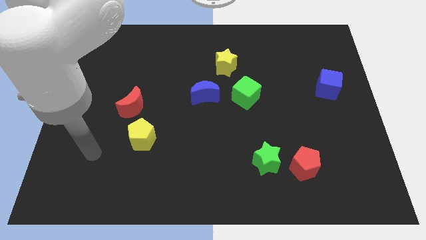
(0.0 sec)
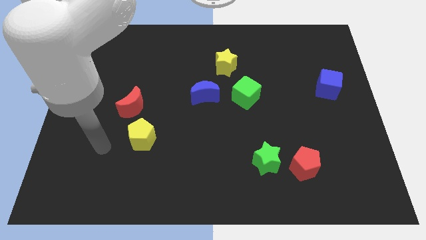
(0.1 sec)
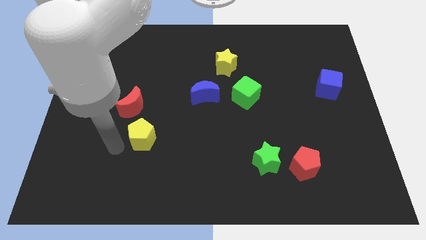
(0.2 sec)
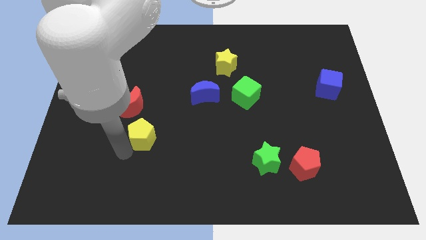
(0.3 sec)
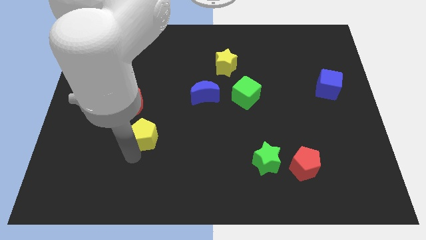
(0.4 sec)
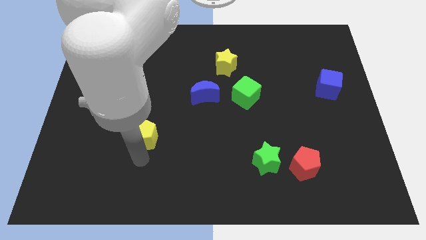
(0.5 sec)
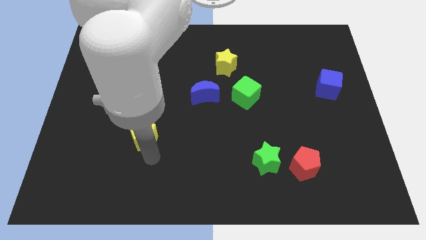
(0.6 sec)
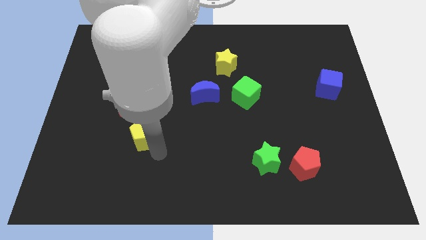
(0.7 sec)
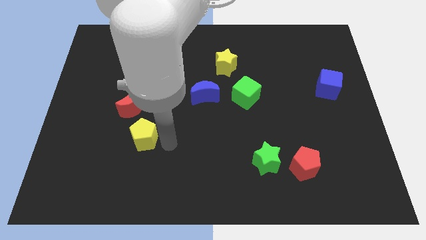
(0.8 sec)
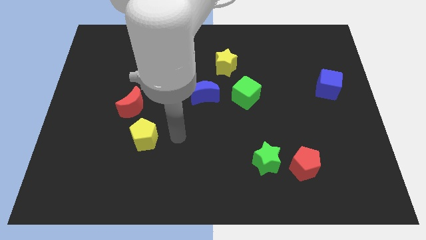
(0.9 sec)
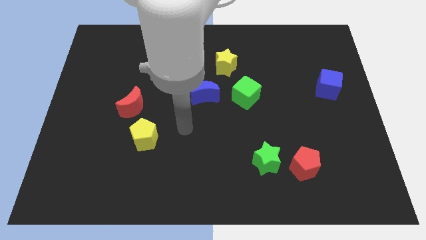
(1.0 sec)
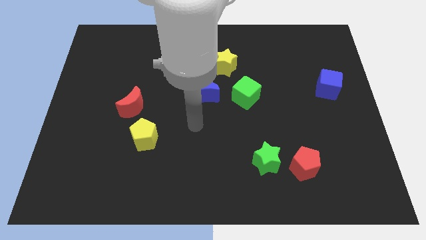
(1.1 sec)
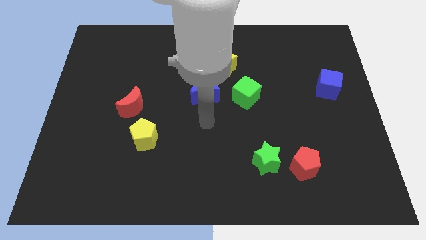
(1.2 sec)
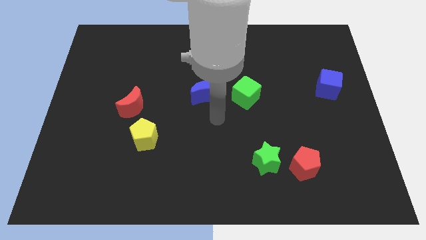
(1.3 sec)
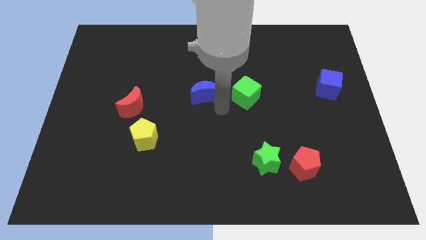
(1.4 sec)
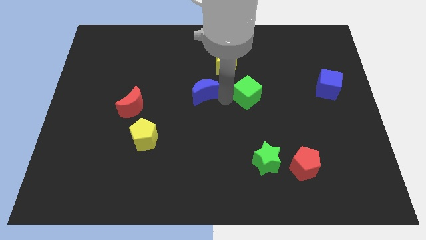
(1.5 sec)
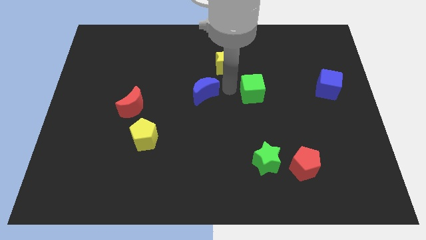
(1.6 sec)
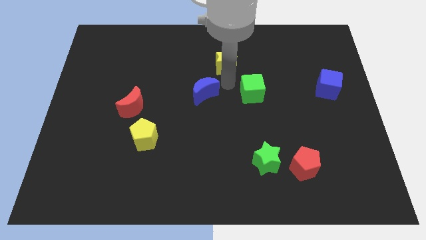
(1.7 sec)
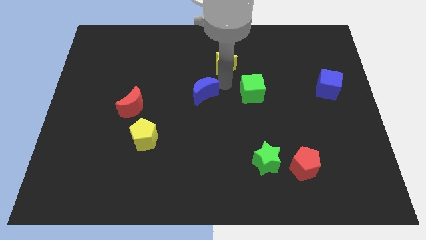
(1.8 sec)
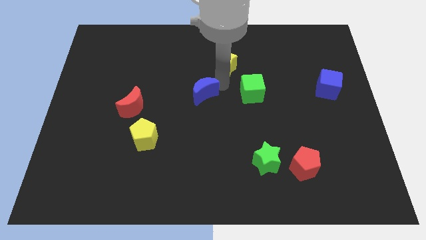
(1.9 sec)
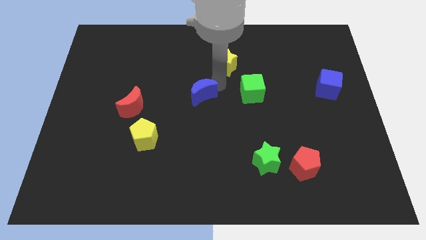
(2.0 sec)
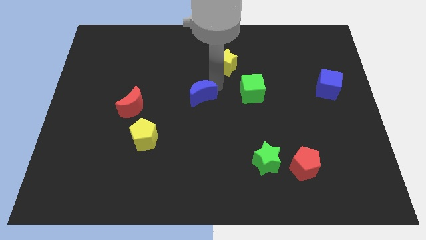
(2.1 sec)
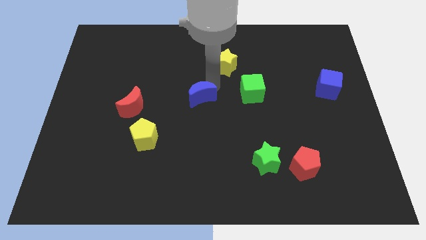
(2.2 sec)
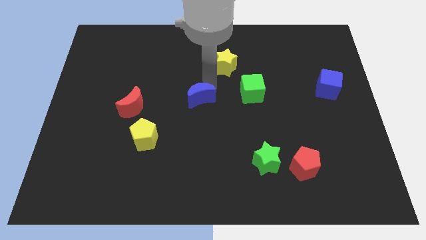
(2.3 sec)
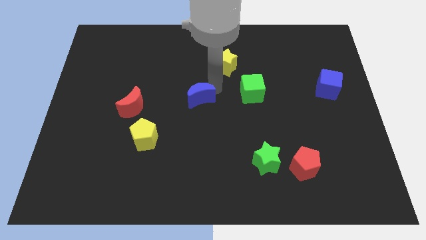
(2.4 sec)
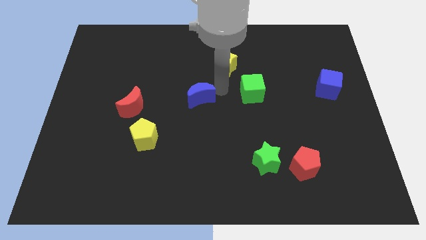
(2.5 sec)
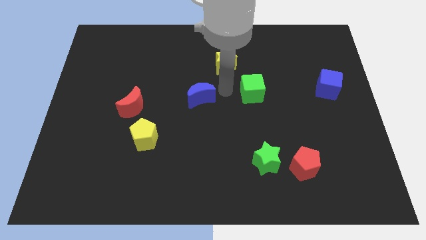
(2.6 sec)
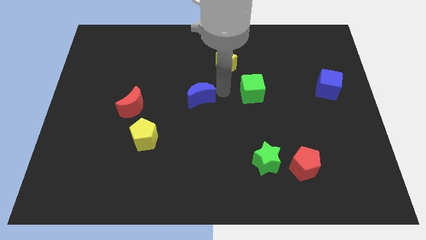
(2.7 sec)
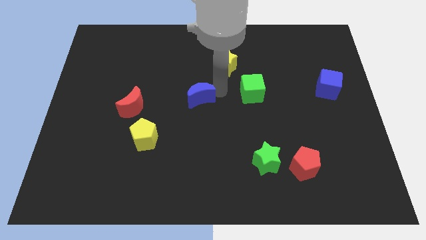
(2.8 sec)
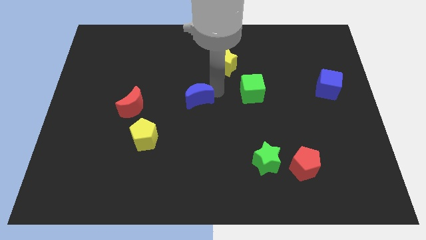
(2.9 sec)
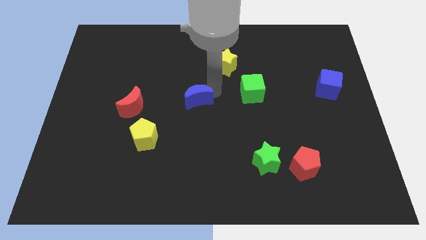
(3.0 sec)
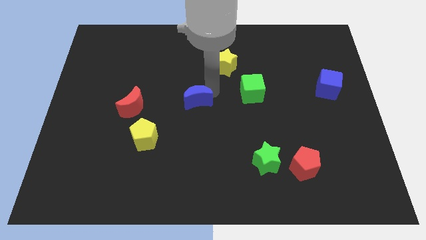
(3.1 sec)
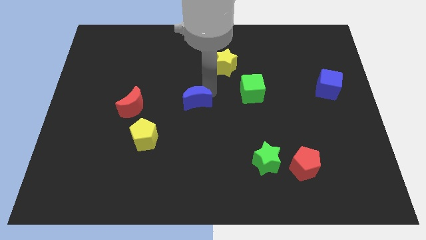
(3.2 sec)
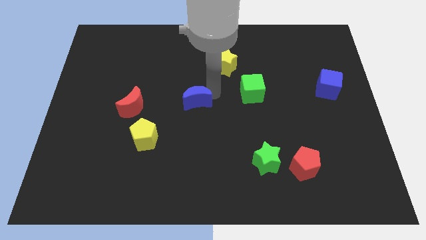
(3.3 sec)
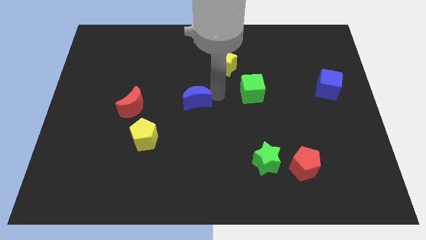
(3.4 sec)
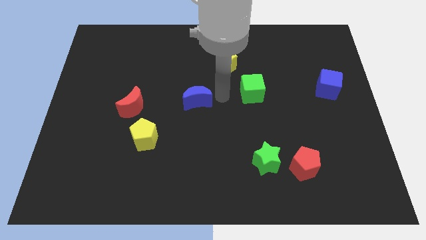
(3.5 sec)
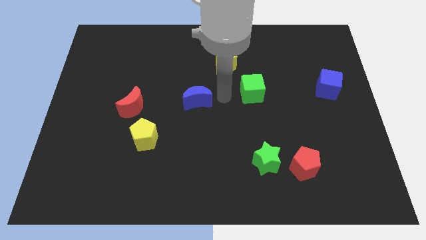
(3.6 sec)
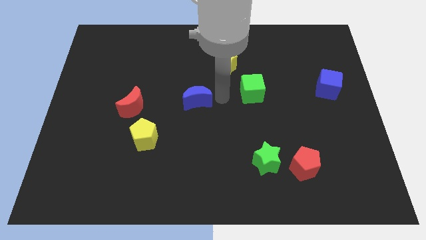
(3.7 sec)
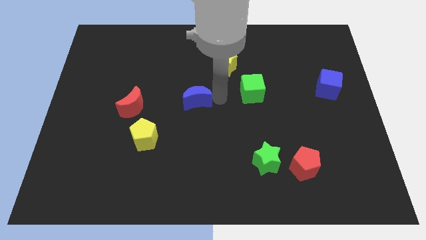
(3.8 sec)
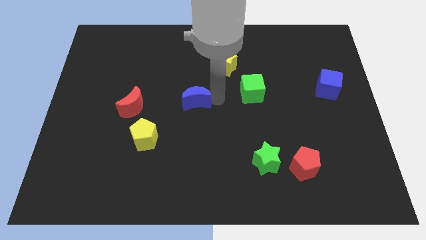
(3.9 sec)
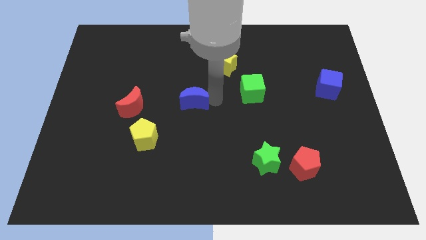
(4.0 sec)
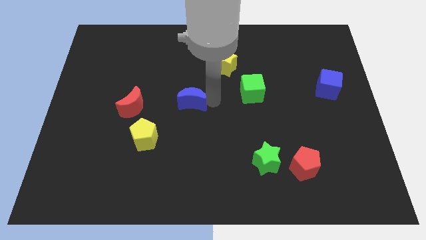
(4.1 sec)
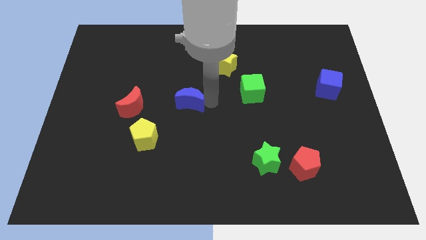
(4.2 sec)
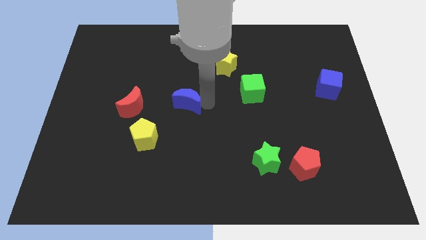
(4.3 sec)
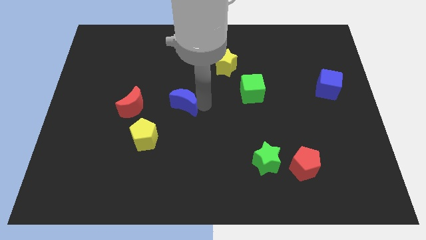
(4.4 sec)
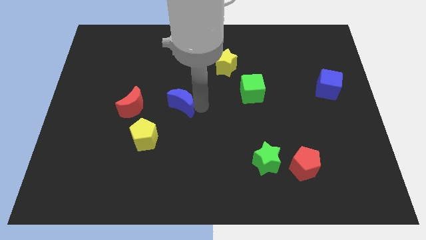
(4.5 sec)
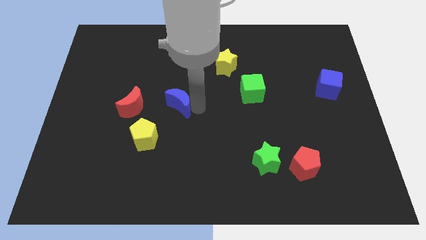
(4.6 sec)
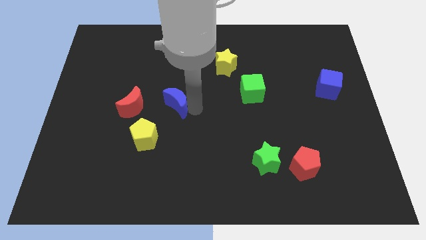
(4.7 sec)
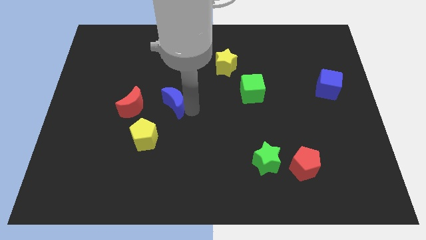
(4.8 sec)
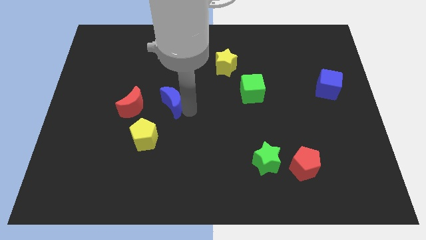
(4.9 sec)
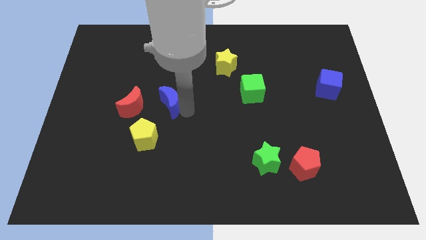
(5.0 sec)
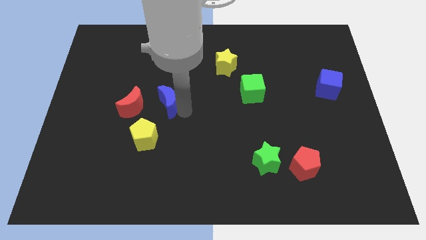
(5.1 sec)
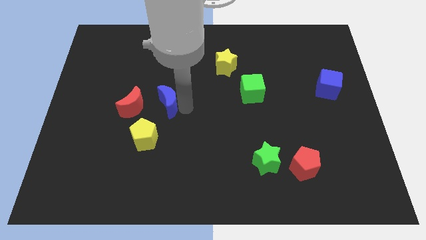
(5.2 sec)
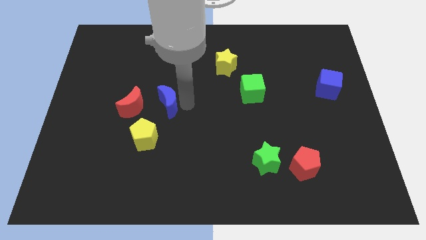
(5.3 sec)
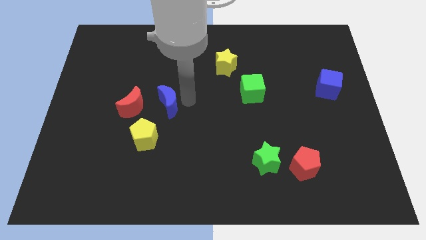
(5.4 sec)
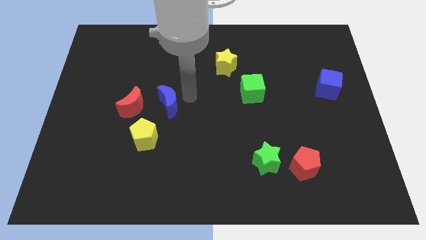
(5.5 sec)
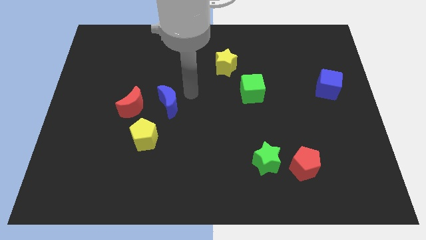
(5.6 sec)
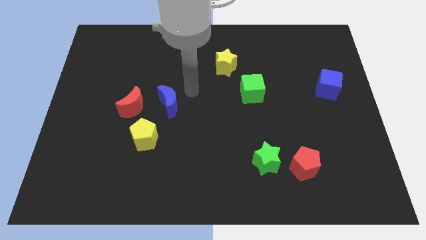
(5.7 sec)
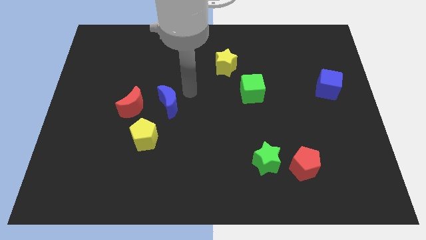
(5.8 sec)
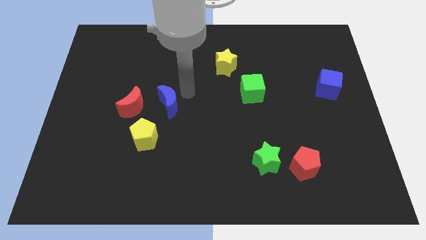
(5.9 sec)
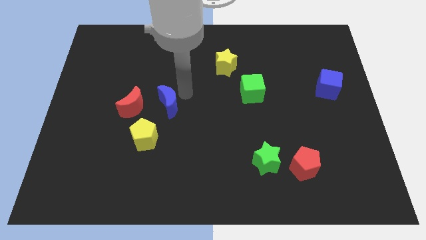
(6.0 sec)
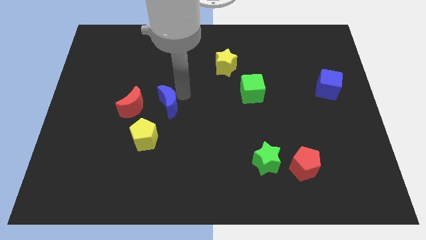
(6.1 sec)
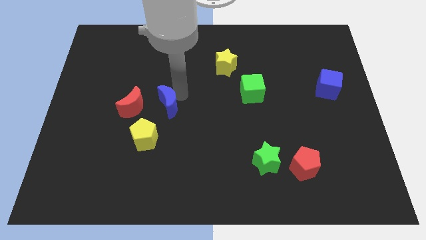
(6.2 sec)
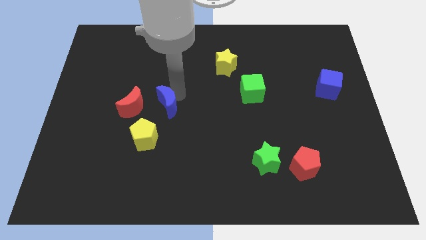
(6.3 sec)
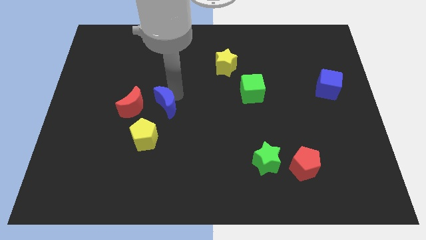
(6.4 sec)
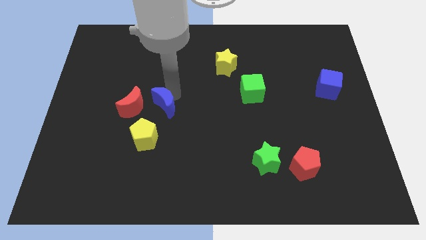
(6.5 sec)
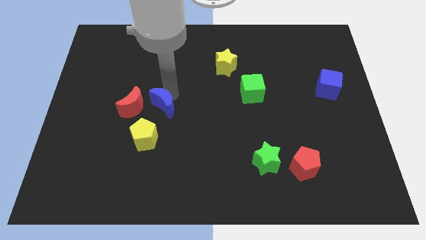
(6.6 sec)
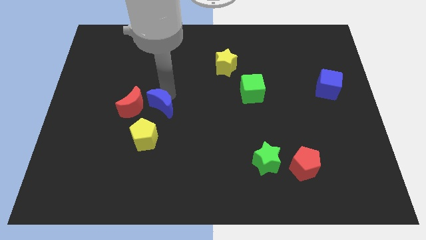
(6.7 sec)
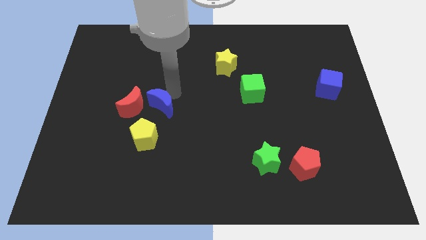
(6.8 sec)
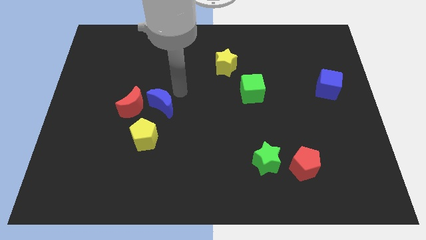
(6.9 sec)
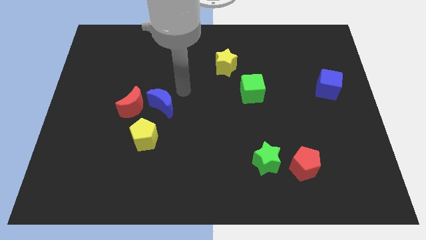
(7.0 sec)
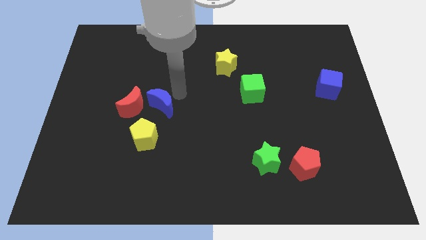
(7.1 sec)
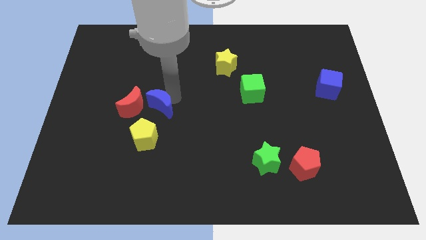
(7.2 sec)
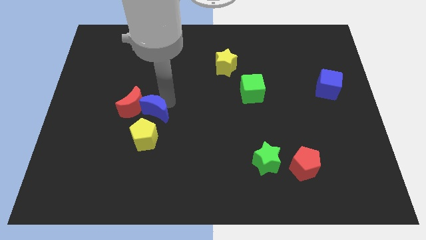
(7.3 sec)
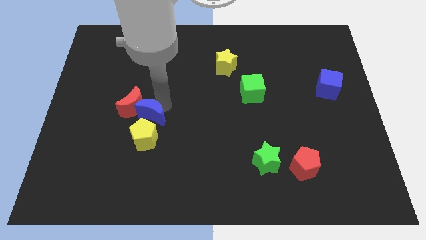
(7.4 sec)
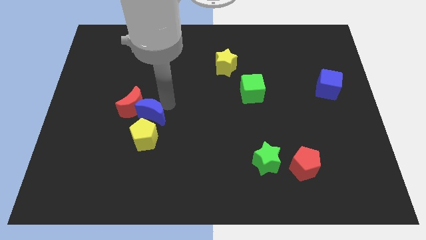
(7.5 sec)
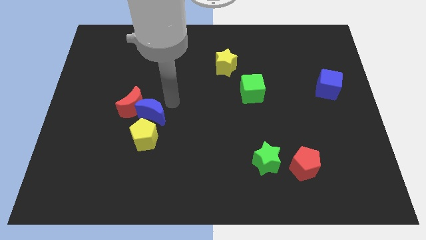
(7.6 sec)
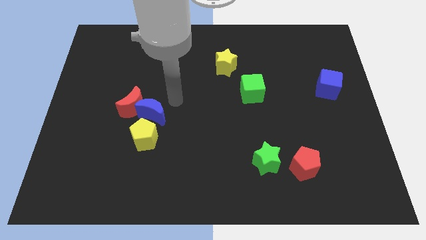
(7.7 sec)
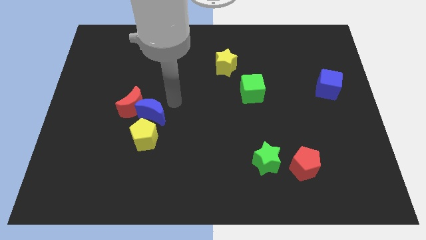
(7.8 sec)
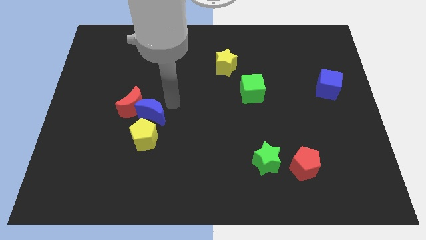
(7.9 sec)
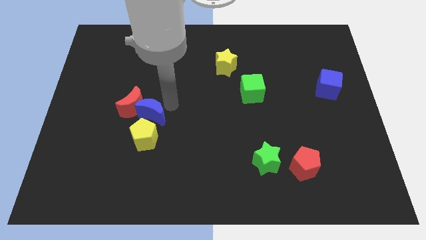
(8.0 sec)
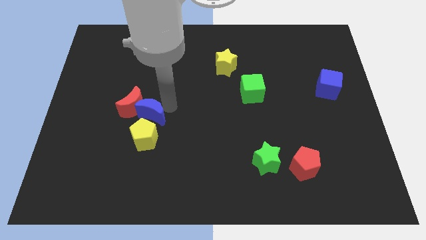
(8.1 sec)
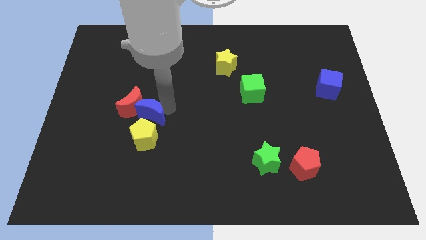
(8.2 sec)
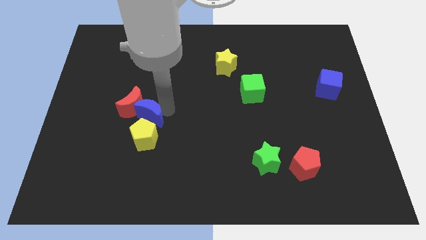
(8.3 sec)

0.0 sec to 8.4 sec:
put the blue moon to the top left of the yellow pentagon
